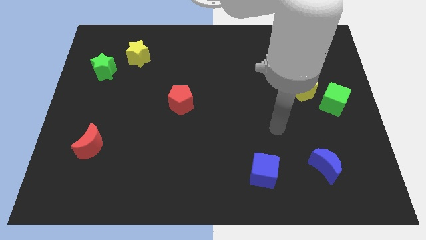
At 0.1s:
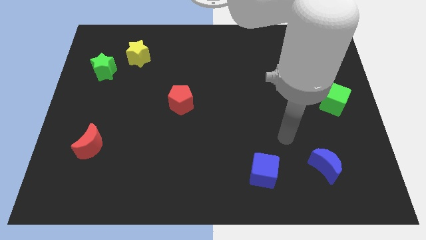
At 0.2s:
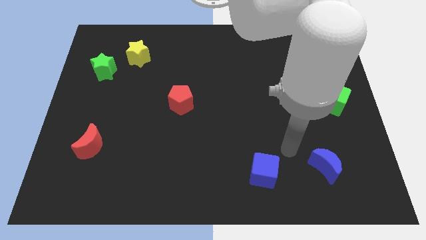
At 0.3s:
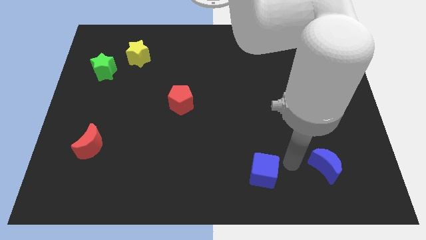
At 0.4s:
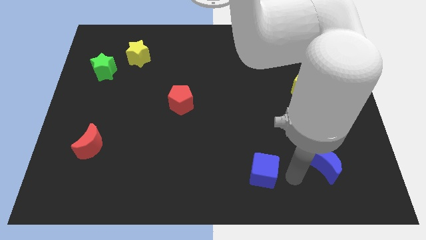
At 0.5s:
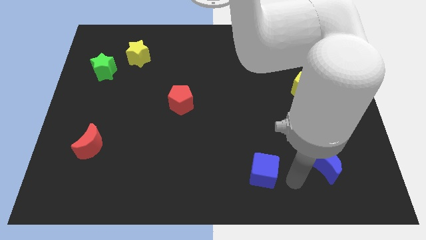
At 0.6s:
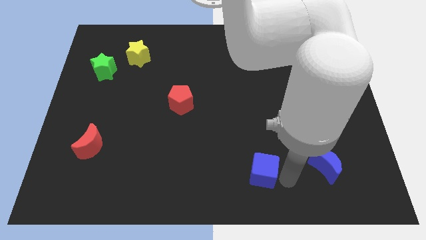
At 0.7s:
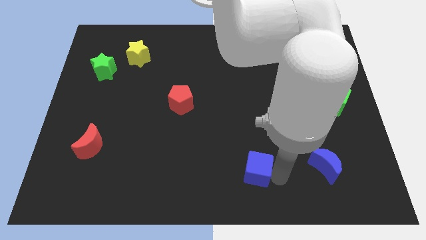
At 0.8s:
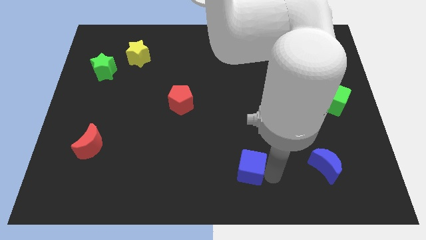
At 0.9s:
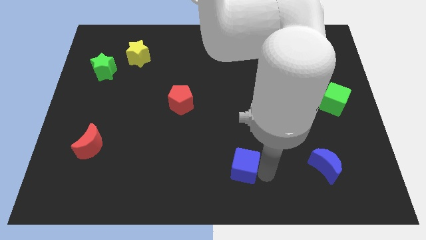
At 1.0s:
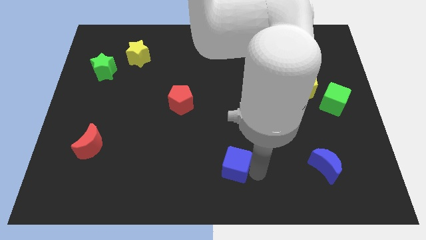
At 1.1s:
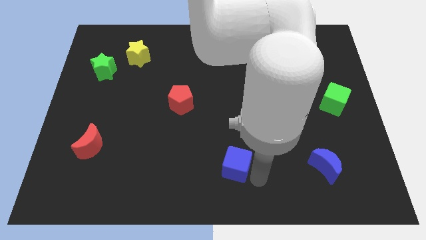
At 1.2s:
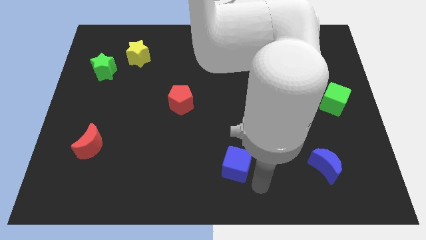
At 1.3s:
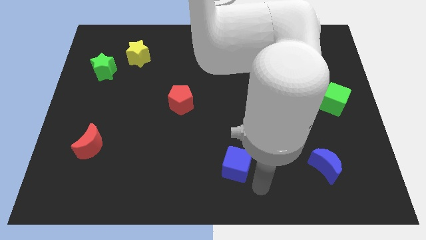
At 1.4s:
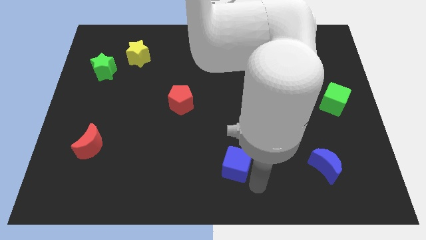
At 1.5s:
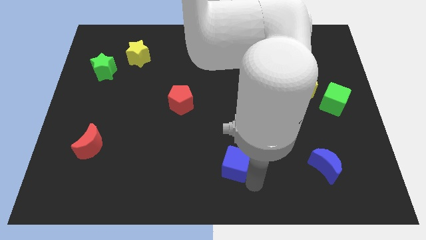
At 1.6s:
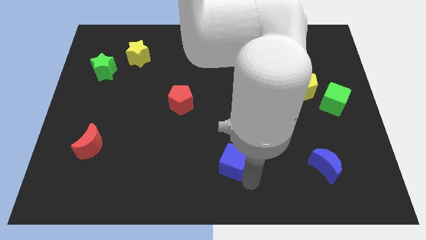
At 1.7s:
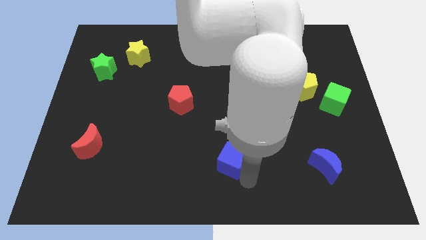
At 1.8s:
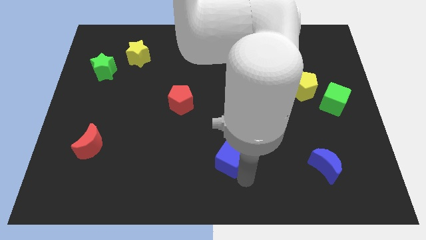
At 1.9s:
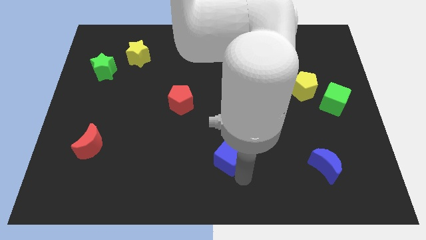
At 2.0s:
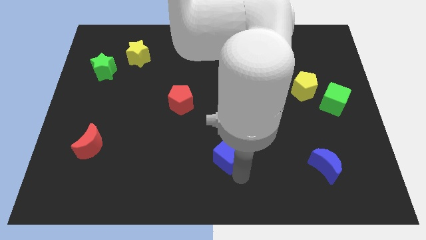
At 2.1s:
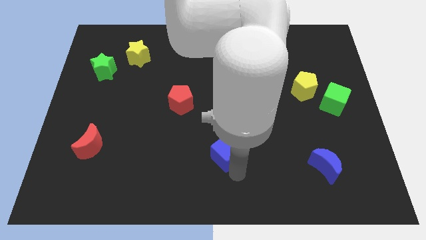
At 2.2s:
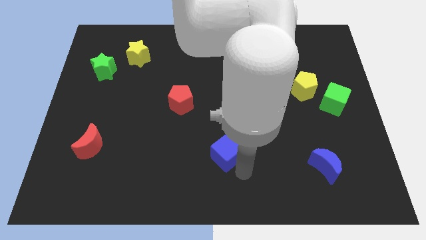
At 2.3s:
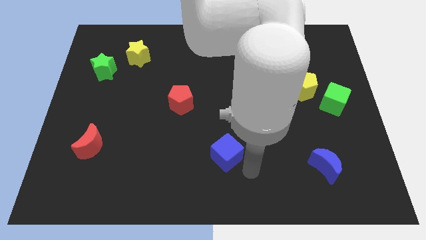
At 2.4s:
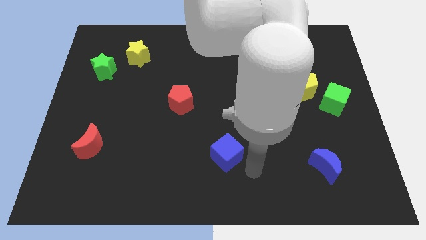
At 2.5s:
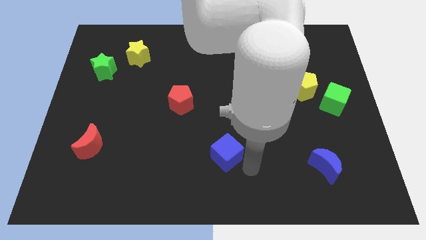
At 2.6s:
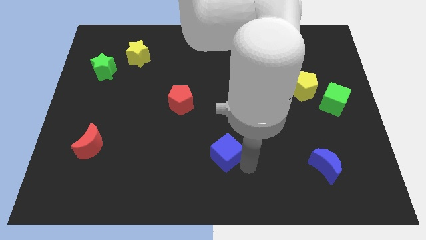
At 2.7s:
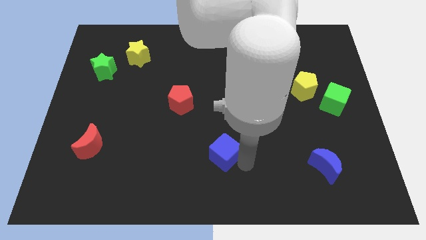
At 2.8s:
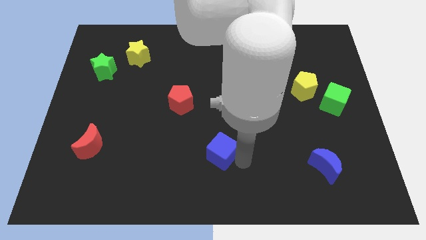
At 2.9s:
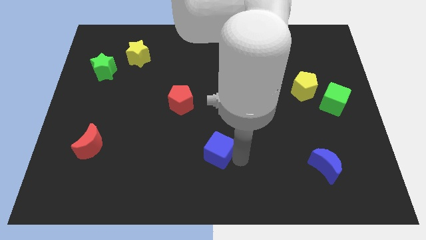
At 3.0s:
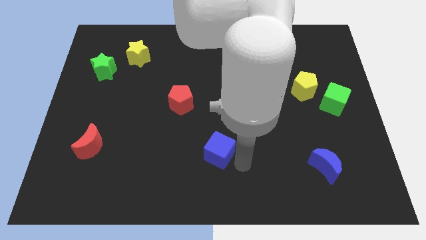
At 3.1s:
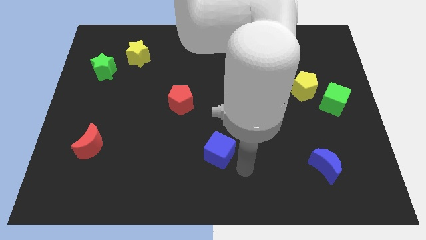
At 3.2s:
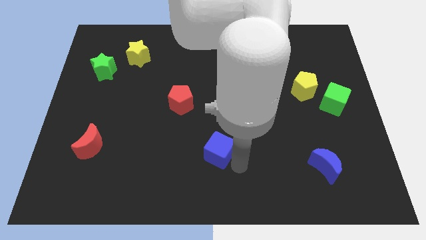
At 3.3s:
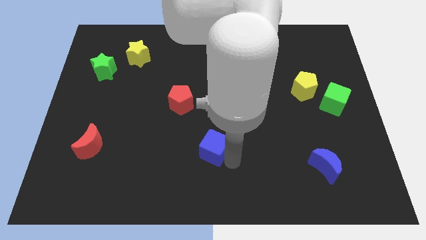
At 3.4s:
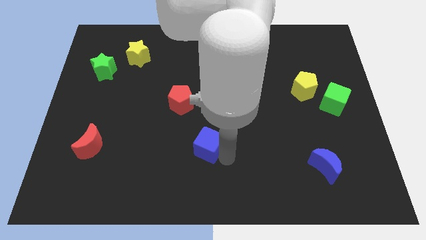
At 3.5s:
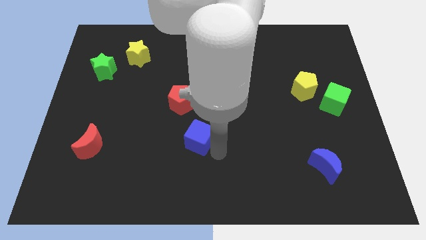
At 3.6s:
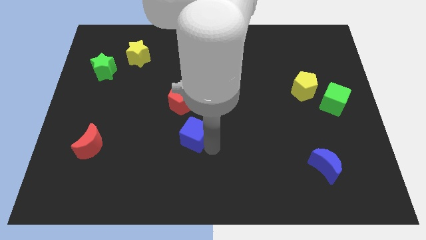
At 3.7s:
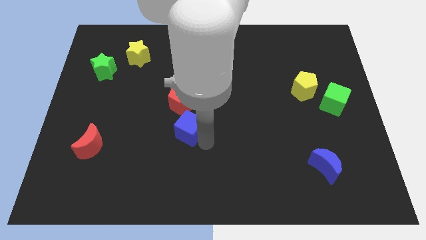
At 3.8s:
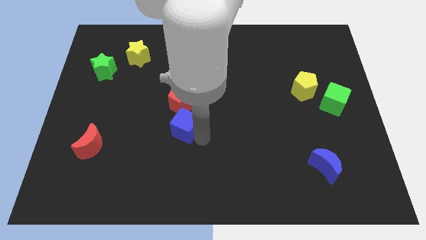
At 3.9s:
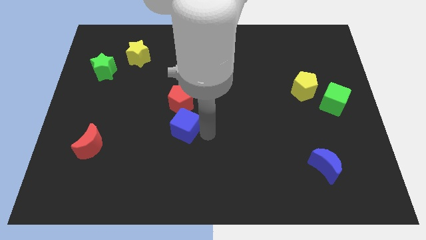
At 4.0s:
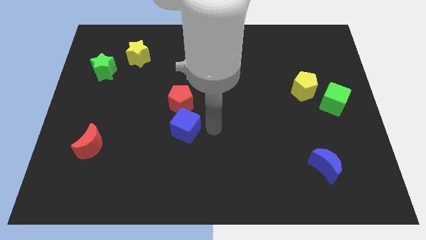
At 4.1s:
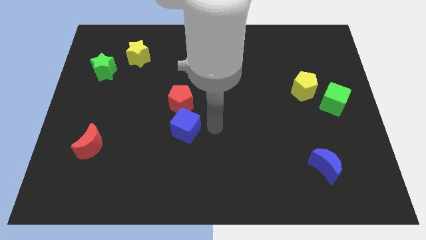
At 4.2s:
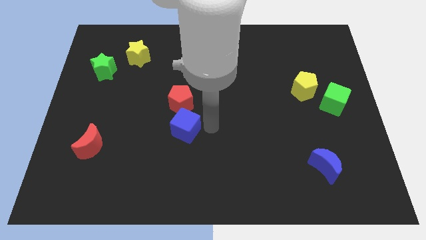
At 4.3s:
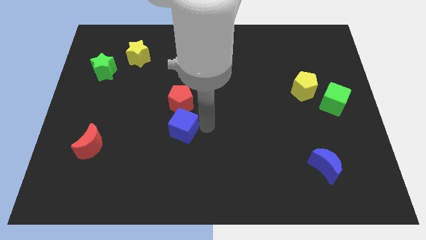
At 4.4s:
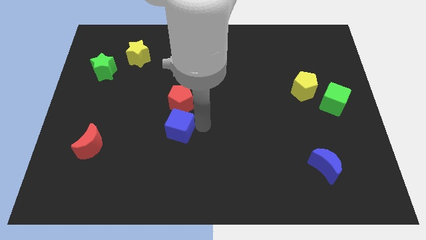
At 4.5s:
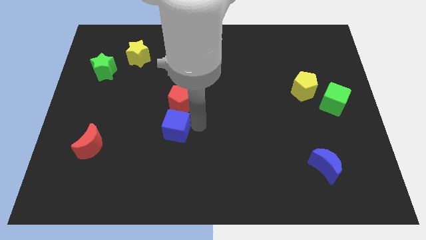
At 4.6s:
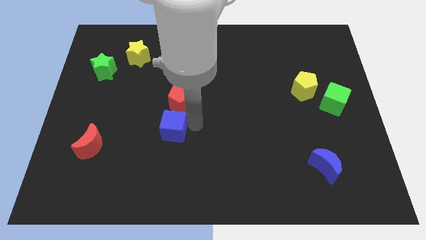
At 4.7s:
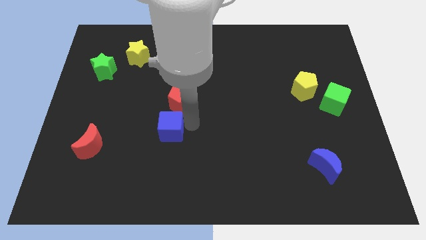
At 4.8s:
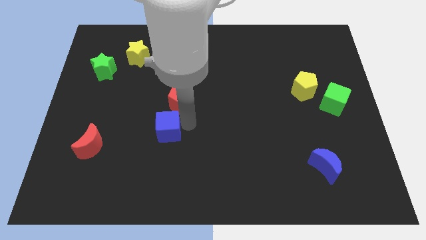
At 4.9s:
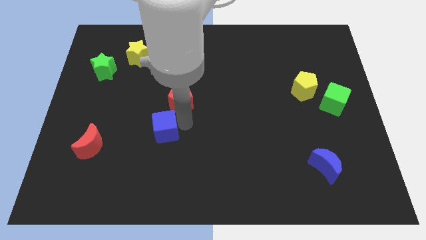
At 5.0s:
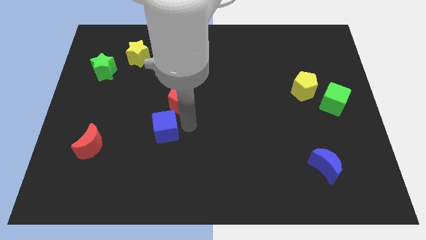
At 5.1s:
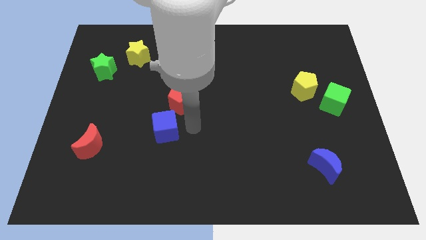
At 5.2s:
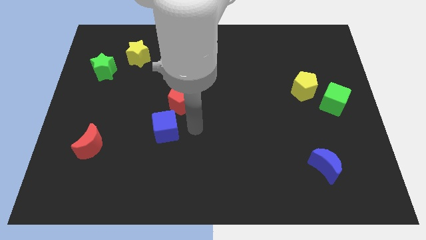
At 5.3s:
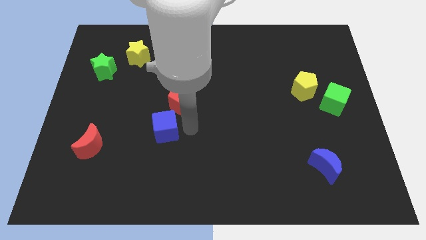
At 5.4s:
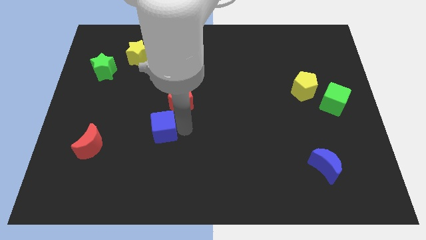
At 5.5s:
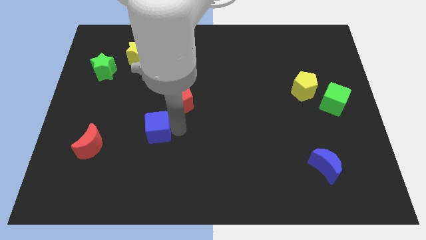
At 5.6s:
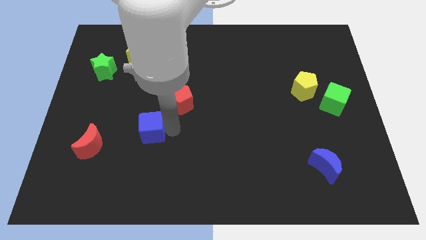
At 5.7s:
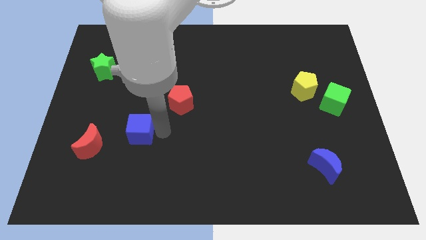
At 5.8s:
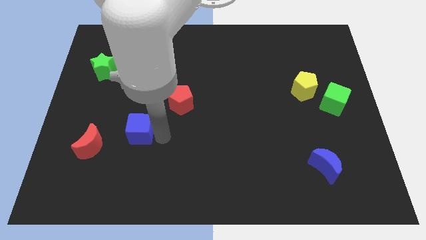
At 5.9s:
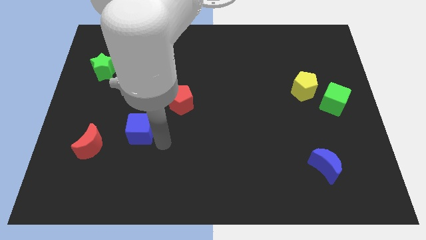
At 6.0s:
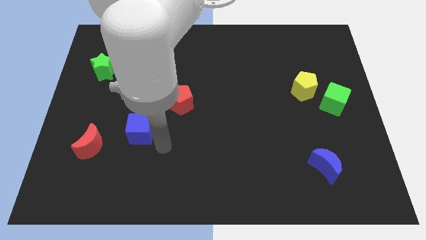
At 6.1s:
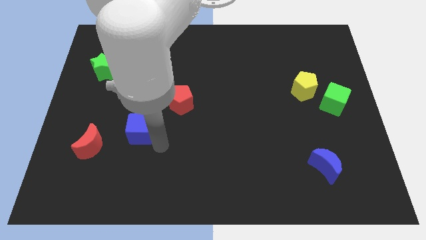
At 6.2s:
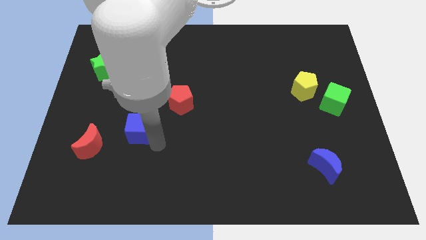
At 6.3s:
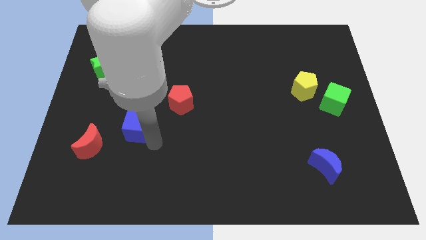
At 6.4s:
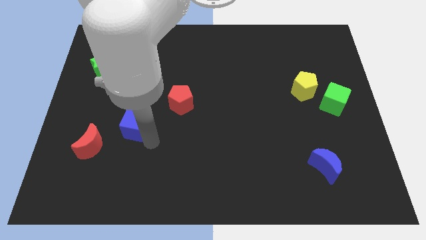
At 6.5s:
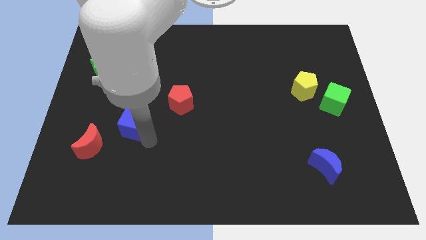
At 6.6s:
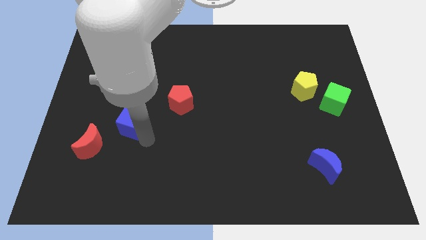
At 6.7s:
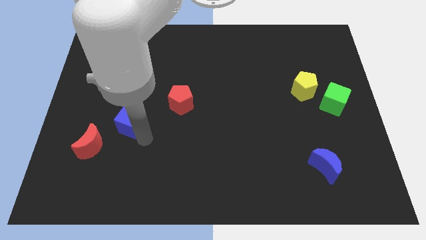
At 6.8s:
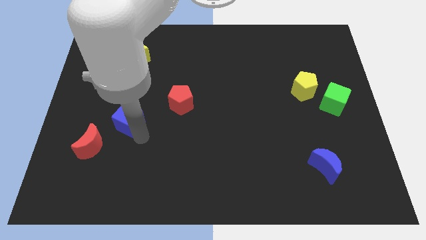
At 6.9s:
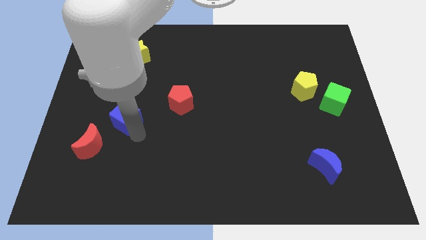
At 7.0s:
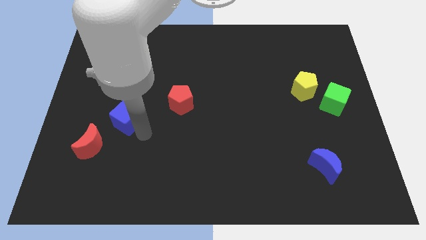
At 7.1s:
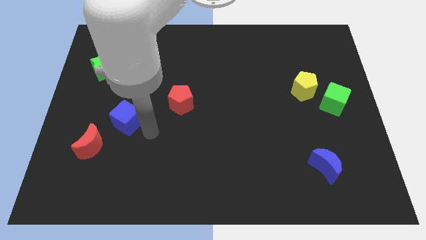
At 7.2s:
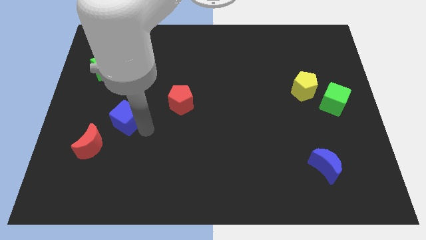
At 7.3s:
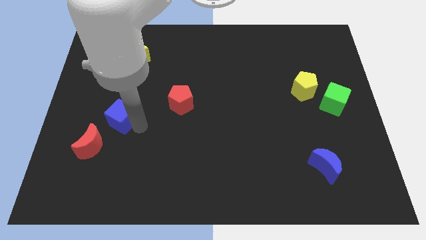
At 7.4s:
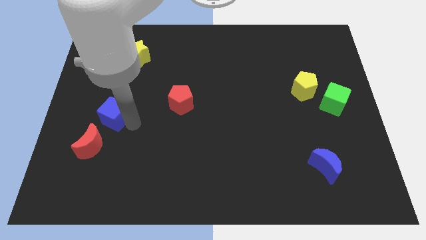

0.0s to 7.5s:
slide the blue cube to the top of the red moon
